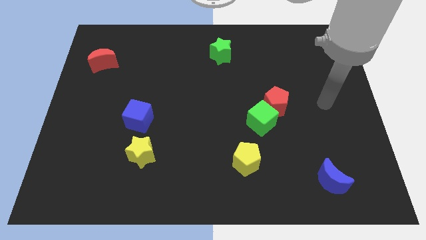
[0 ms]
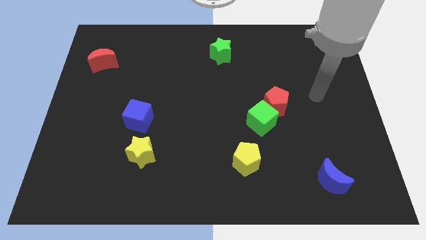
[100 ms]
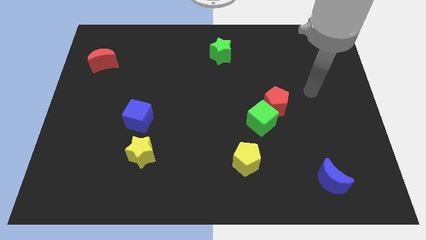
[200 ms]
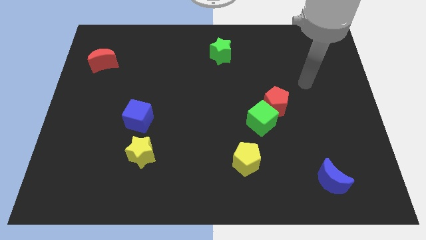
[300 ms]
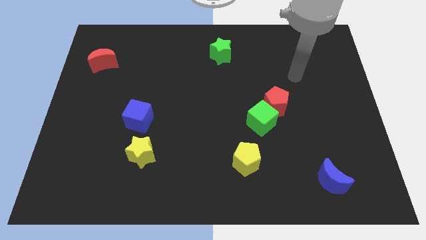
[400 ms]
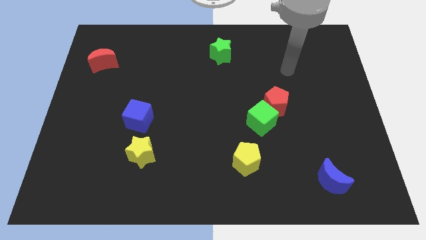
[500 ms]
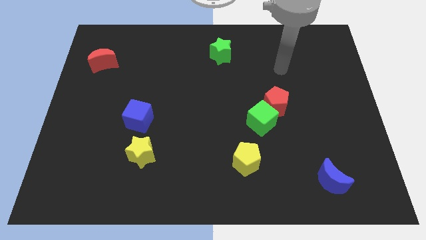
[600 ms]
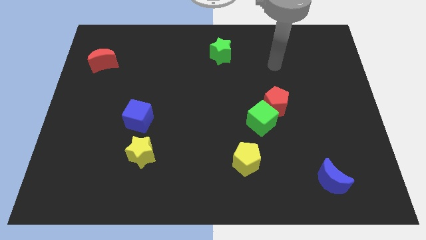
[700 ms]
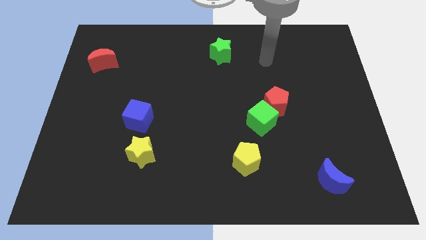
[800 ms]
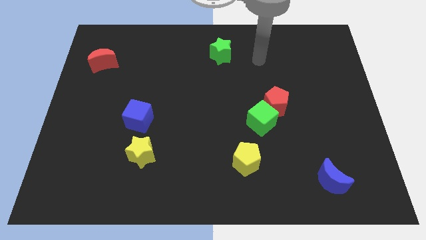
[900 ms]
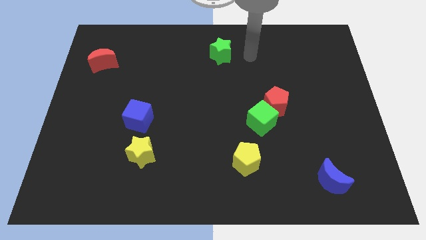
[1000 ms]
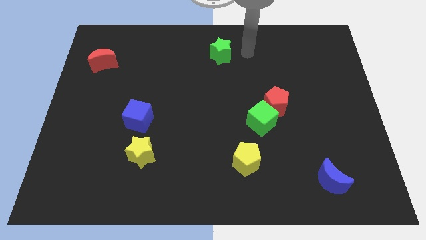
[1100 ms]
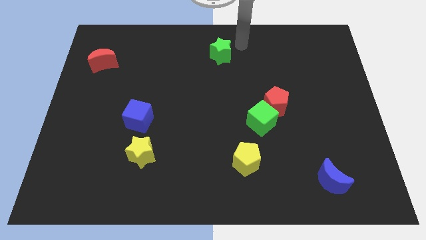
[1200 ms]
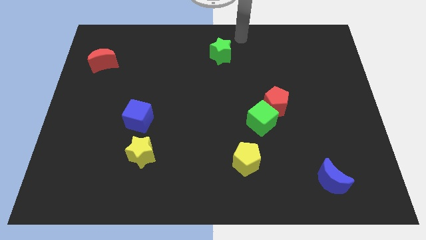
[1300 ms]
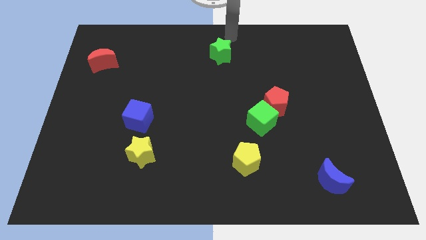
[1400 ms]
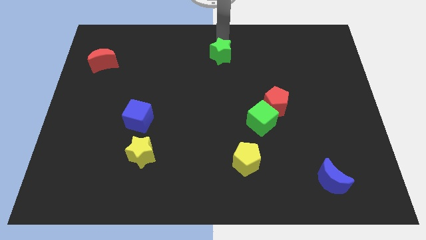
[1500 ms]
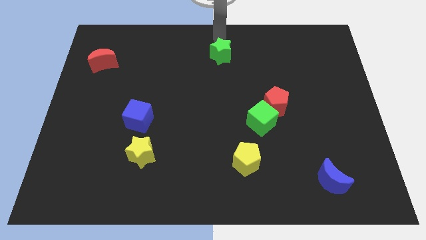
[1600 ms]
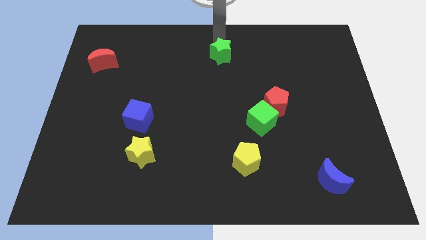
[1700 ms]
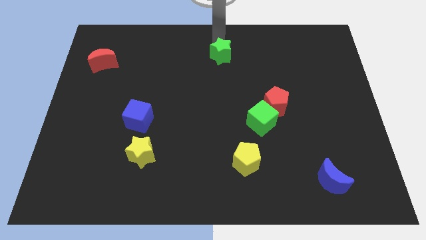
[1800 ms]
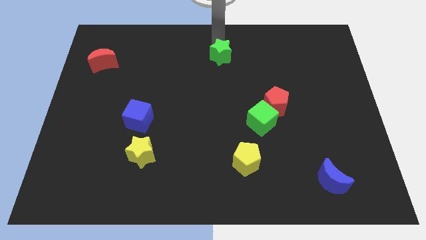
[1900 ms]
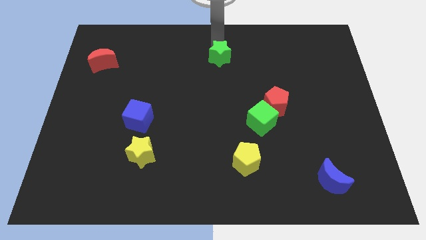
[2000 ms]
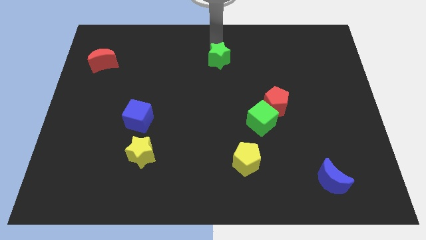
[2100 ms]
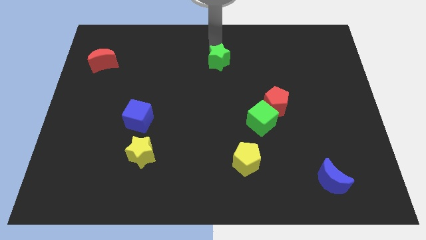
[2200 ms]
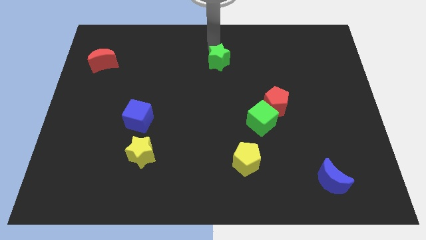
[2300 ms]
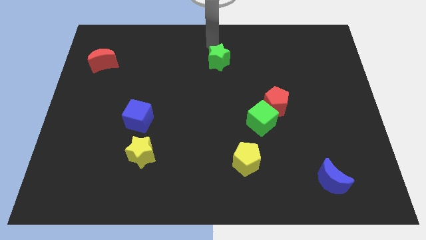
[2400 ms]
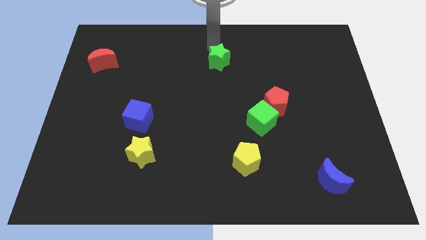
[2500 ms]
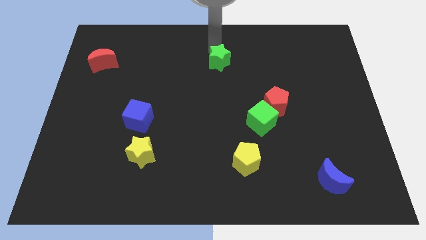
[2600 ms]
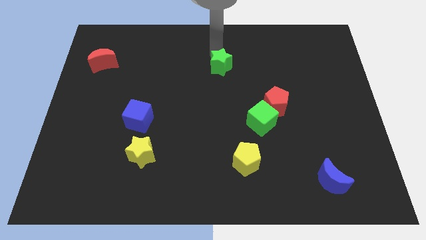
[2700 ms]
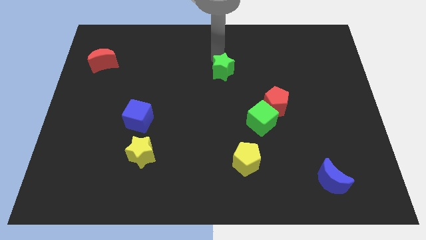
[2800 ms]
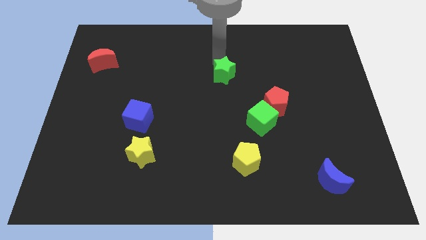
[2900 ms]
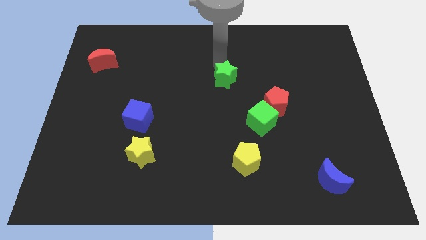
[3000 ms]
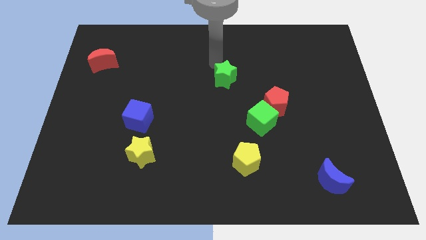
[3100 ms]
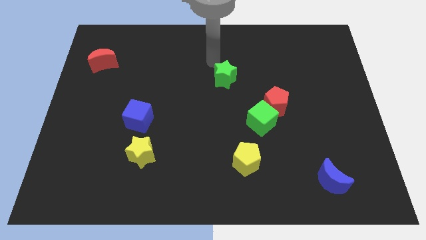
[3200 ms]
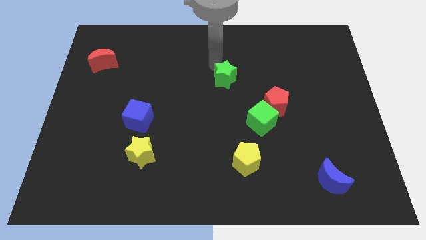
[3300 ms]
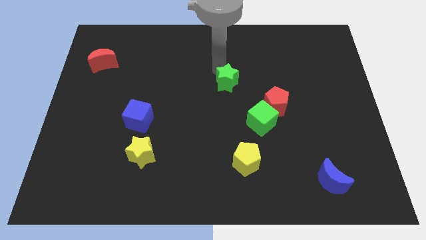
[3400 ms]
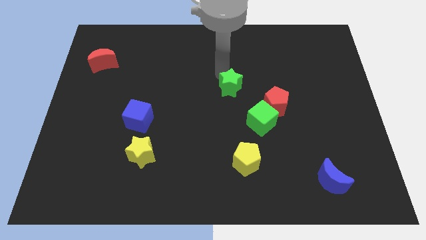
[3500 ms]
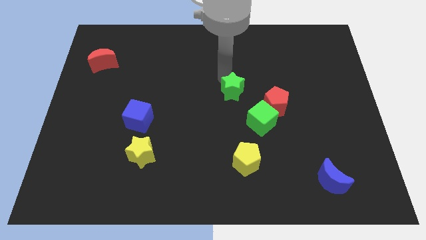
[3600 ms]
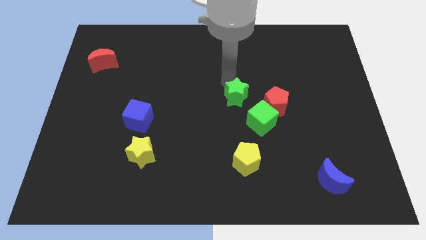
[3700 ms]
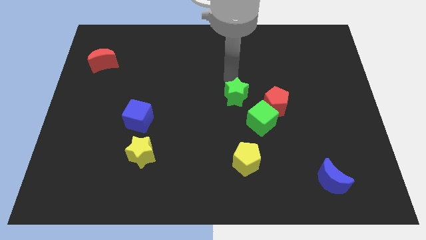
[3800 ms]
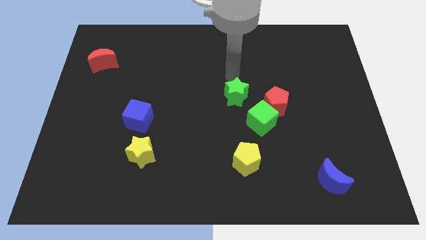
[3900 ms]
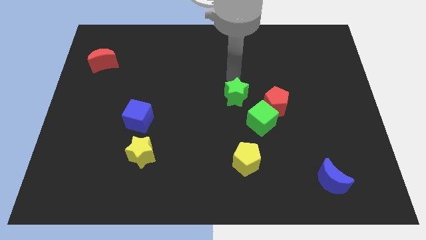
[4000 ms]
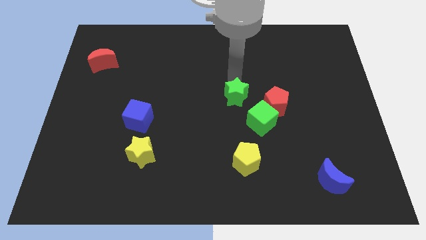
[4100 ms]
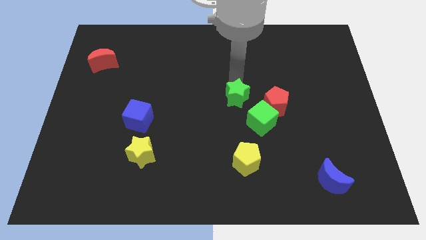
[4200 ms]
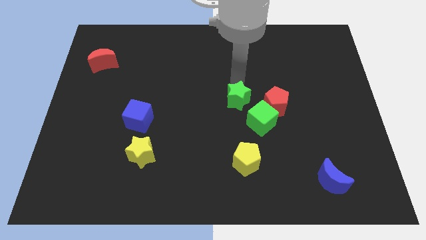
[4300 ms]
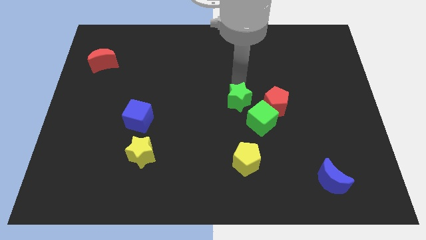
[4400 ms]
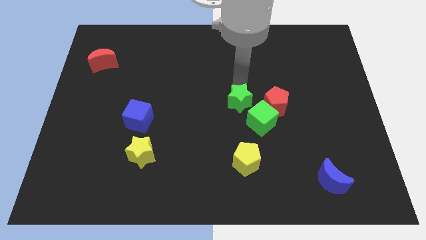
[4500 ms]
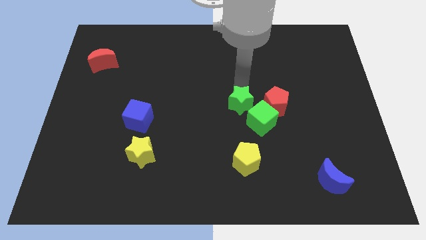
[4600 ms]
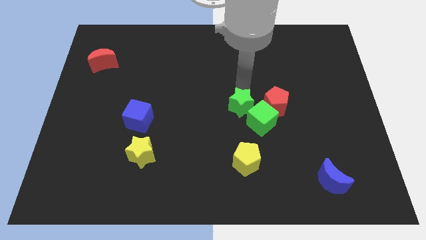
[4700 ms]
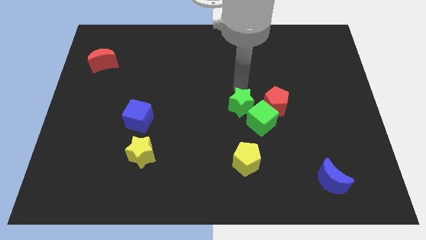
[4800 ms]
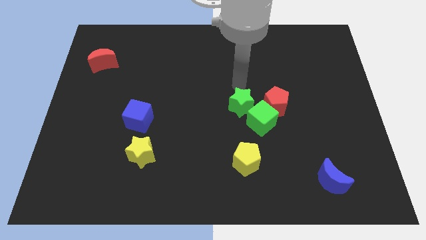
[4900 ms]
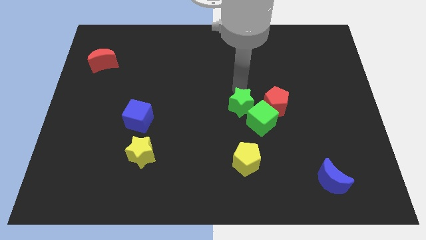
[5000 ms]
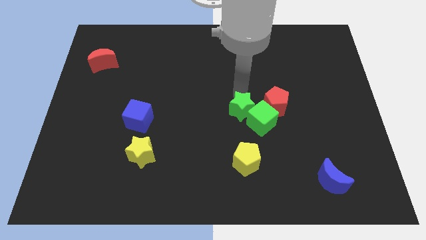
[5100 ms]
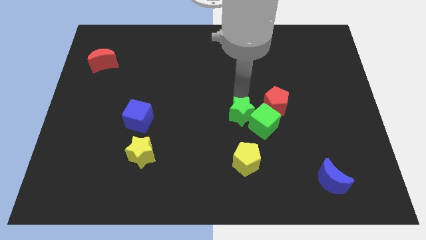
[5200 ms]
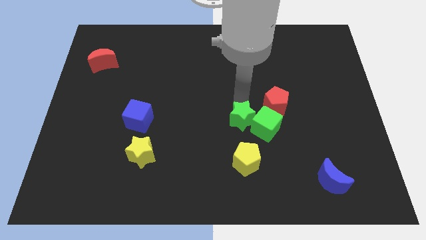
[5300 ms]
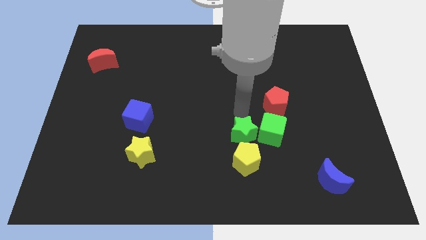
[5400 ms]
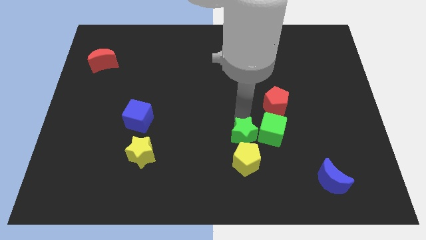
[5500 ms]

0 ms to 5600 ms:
move the green star close to the yellow pentagon

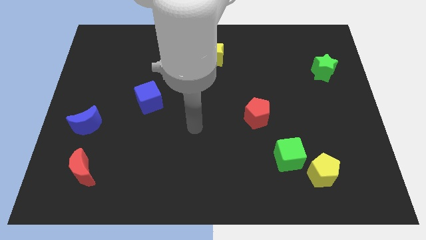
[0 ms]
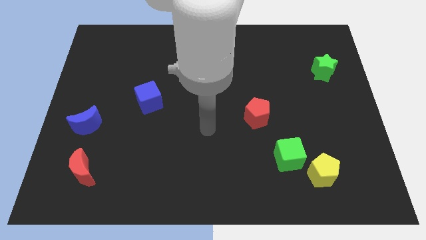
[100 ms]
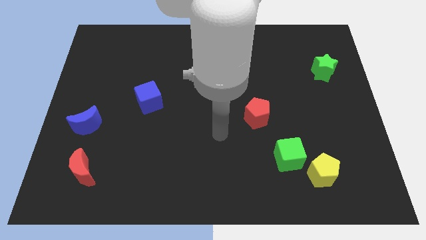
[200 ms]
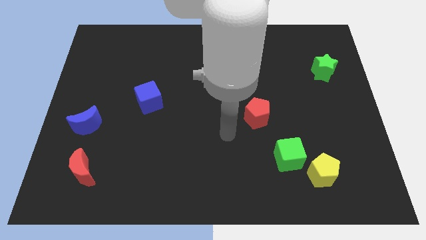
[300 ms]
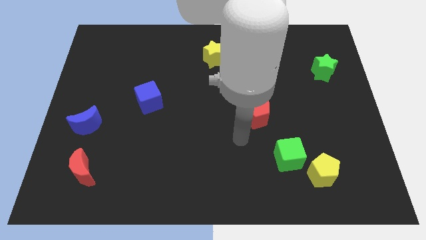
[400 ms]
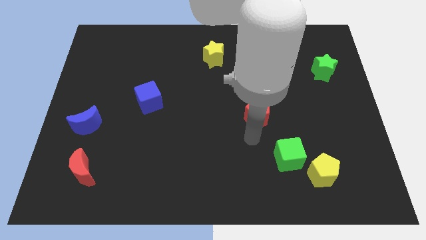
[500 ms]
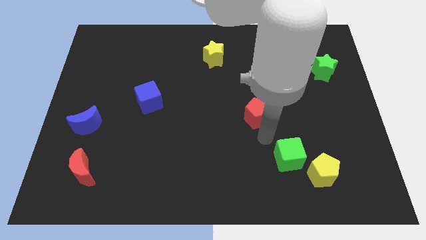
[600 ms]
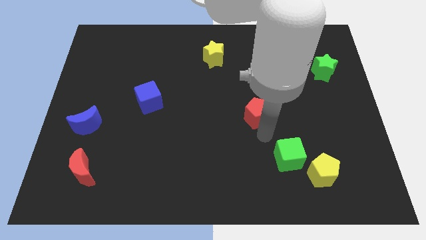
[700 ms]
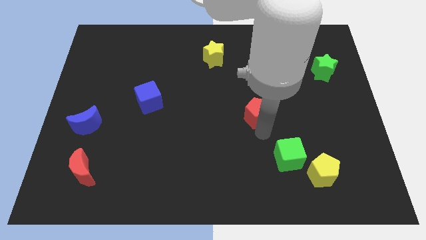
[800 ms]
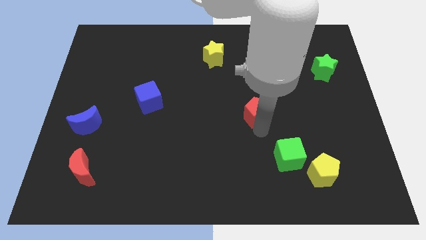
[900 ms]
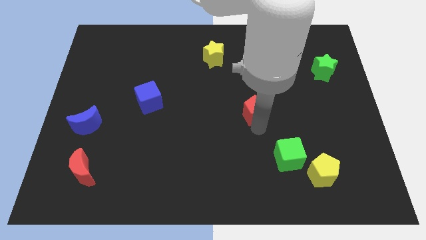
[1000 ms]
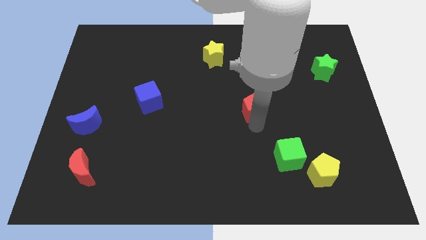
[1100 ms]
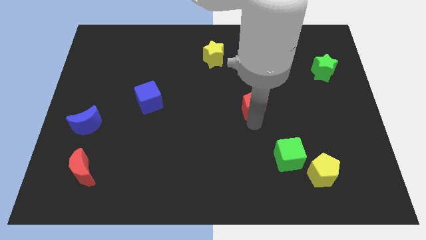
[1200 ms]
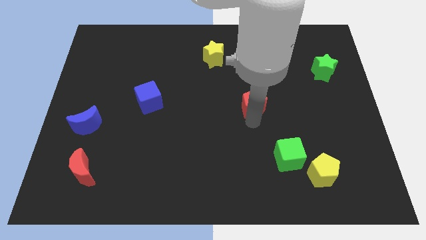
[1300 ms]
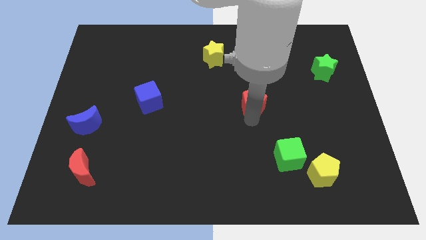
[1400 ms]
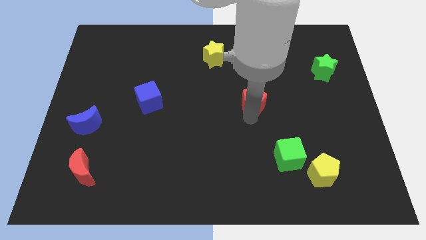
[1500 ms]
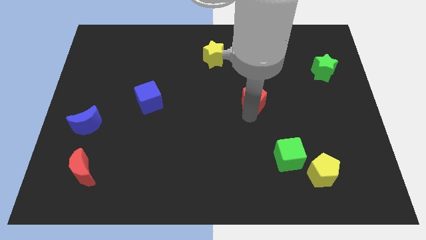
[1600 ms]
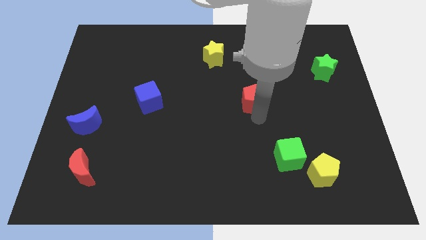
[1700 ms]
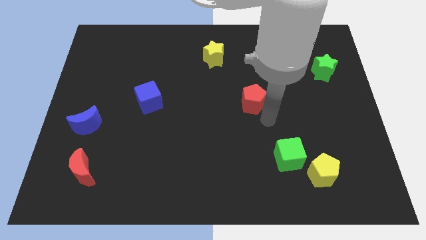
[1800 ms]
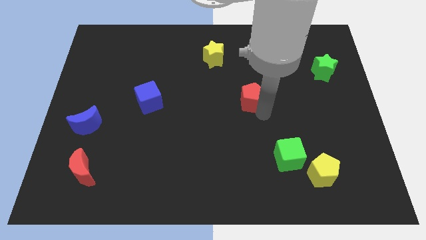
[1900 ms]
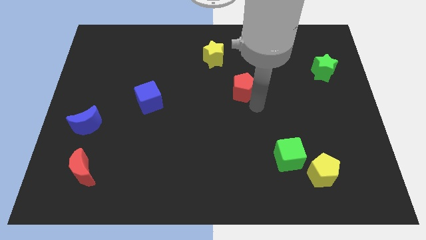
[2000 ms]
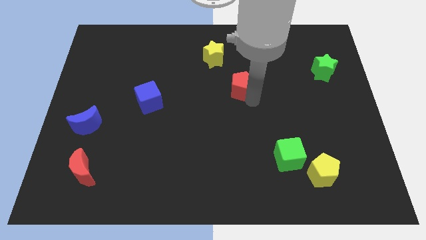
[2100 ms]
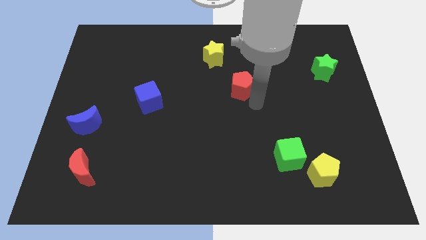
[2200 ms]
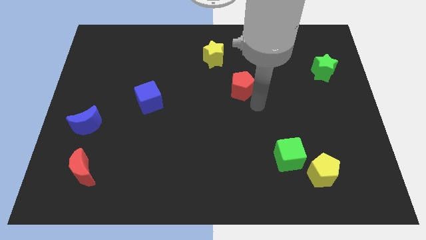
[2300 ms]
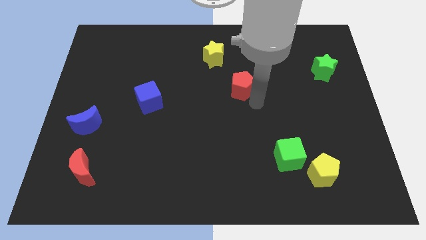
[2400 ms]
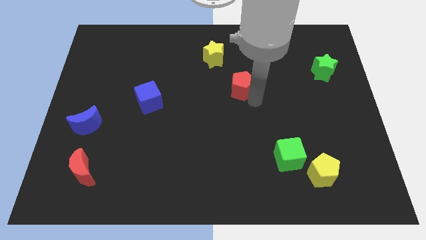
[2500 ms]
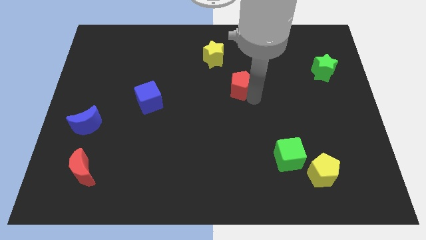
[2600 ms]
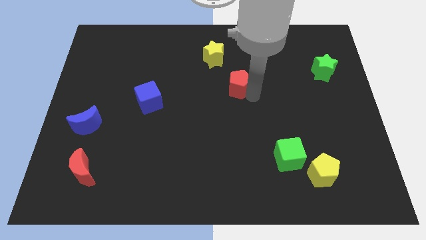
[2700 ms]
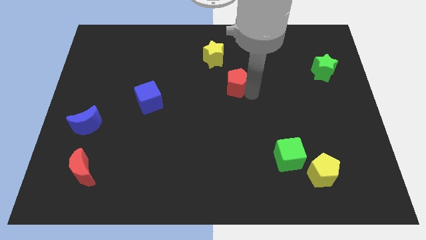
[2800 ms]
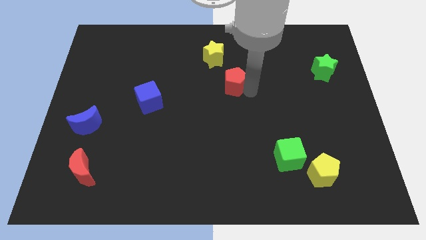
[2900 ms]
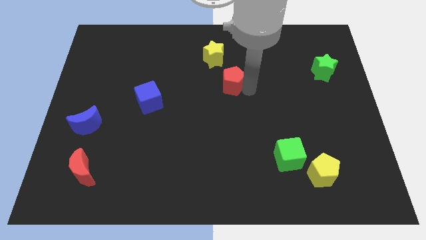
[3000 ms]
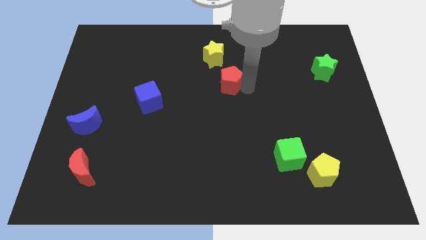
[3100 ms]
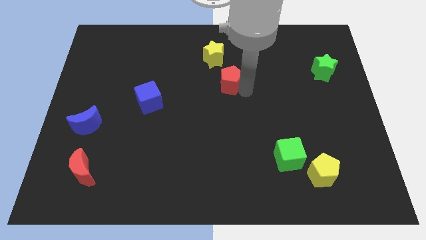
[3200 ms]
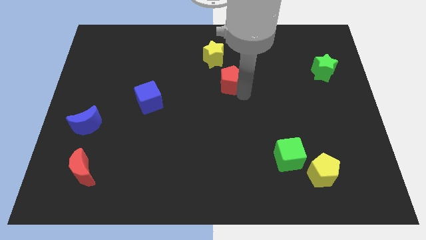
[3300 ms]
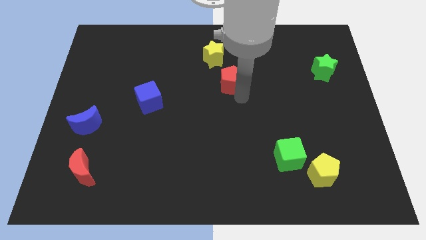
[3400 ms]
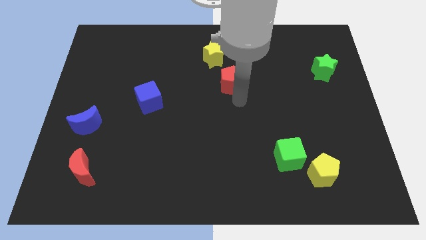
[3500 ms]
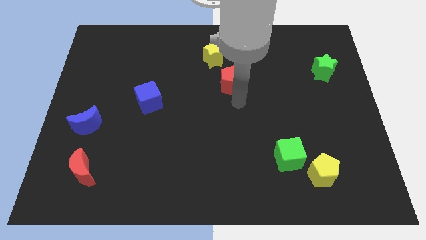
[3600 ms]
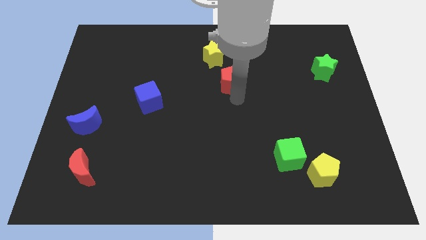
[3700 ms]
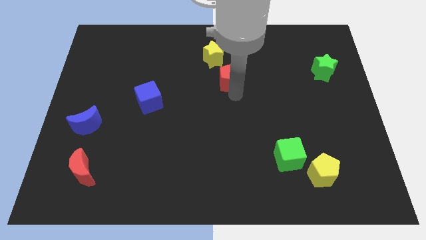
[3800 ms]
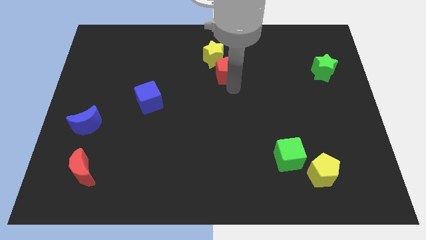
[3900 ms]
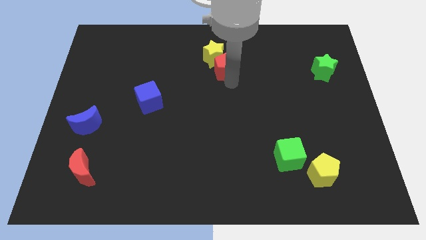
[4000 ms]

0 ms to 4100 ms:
push the red pentagon to the yellow star
